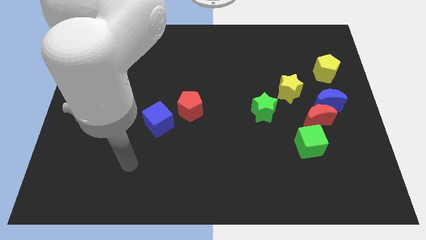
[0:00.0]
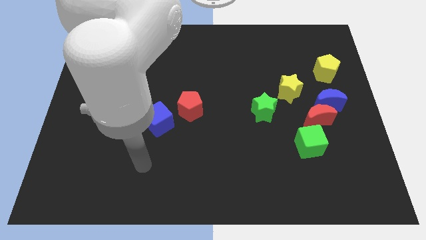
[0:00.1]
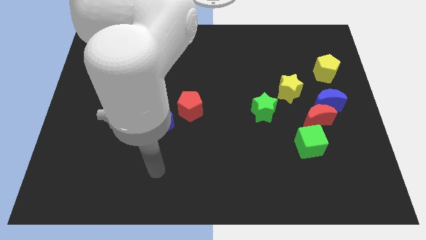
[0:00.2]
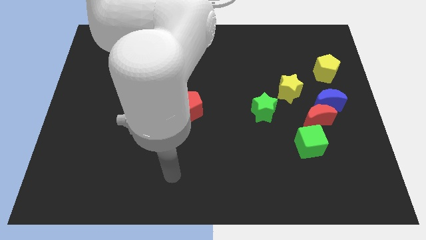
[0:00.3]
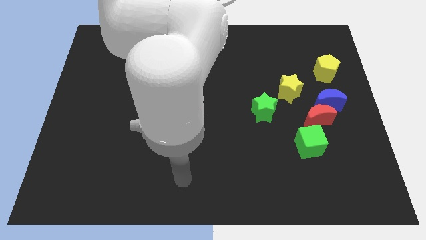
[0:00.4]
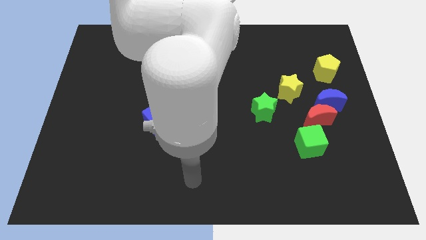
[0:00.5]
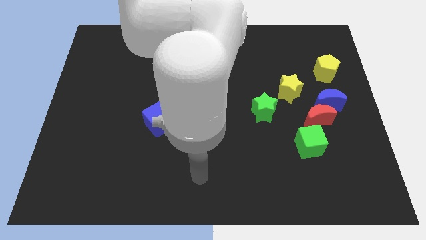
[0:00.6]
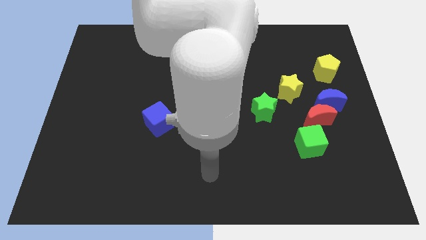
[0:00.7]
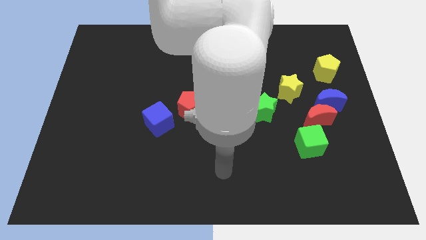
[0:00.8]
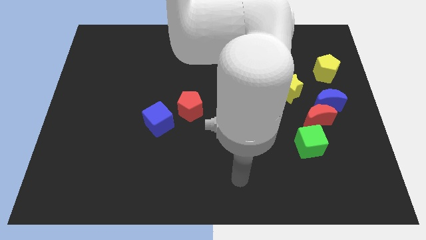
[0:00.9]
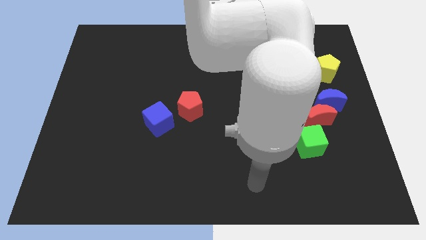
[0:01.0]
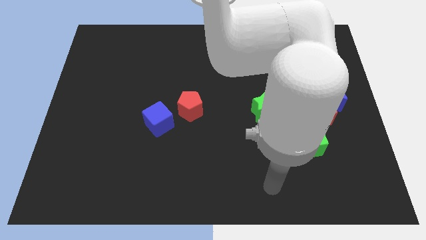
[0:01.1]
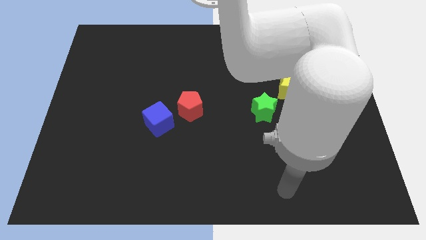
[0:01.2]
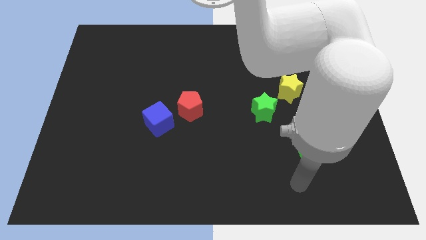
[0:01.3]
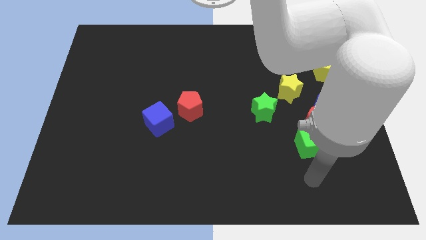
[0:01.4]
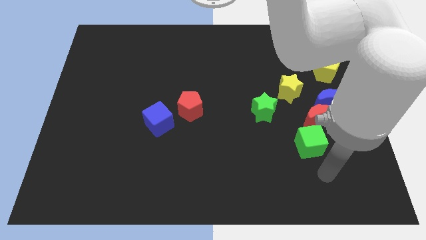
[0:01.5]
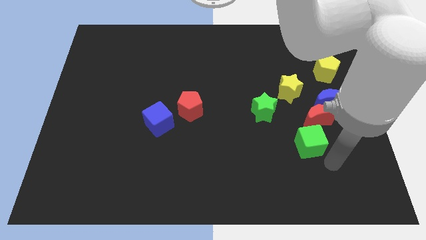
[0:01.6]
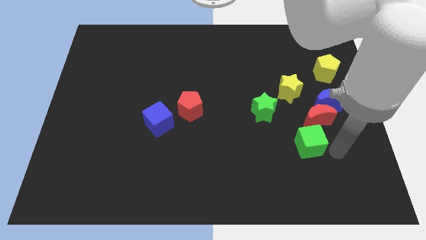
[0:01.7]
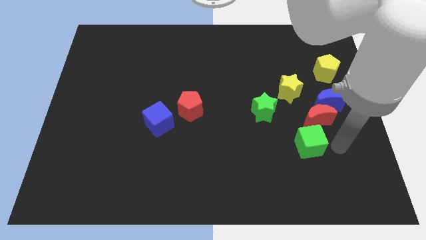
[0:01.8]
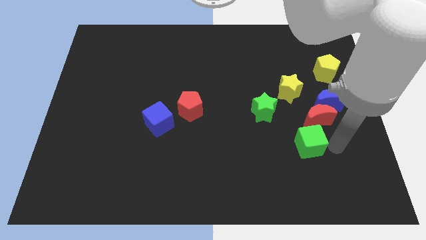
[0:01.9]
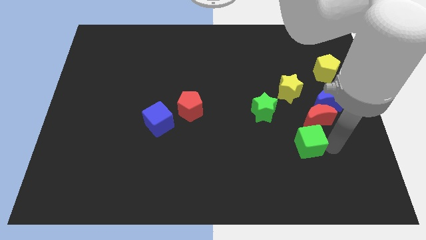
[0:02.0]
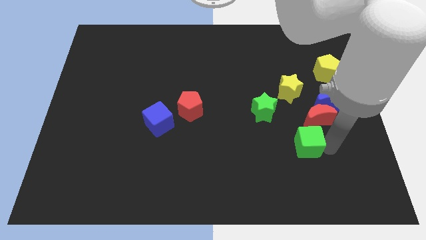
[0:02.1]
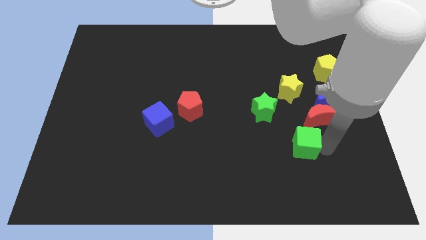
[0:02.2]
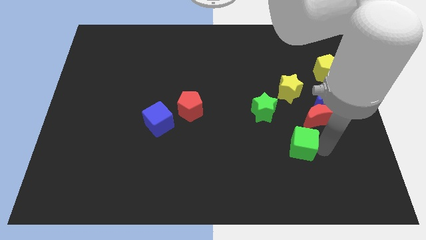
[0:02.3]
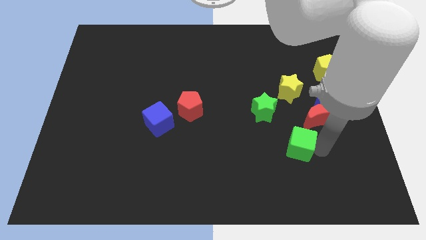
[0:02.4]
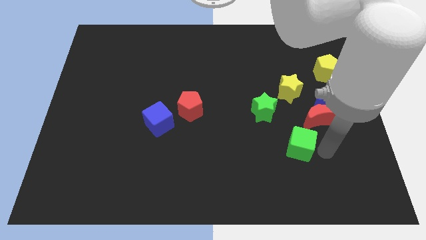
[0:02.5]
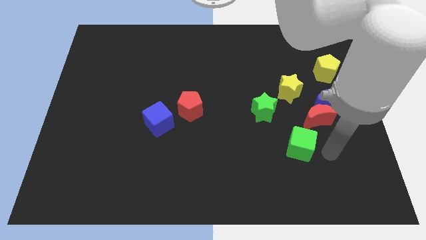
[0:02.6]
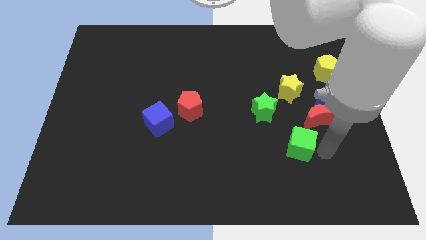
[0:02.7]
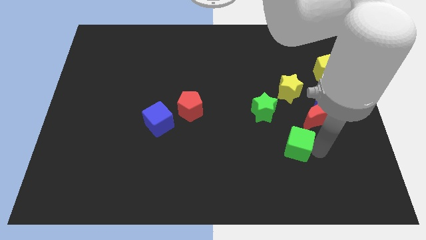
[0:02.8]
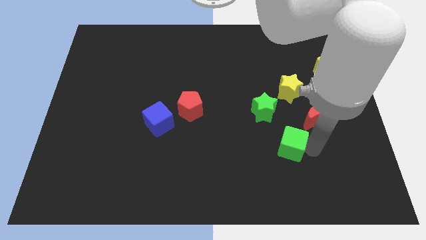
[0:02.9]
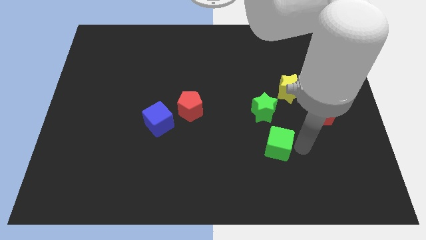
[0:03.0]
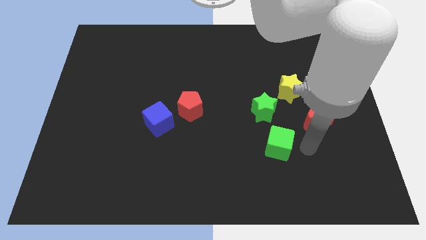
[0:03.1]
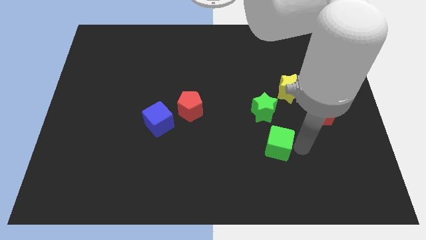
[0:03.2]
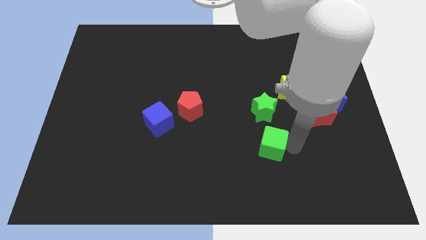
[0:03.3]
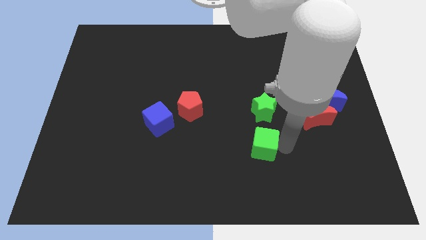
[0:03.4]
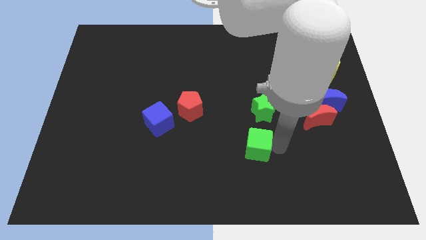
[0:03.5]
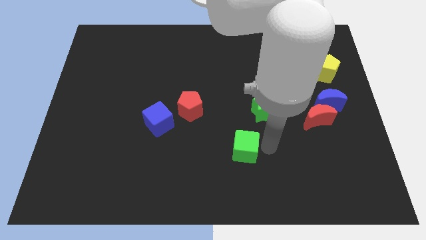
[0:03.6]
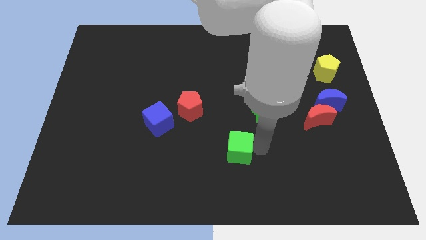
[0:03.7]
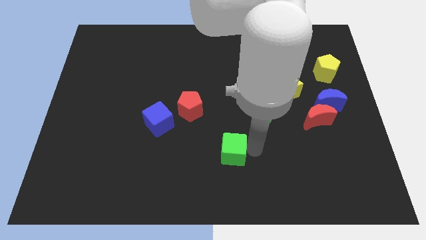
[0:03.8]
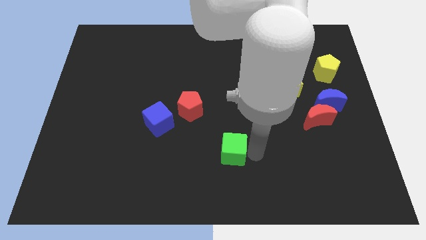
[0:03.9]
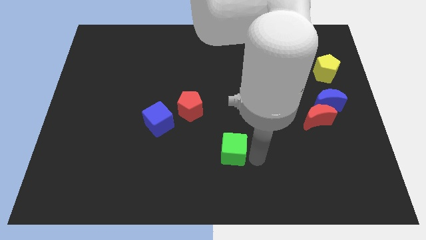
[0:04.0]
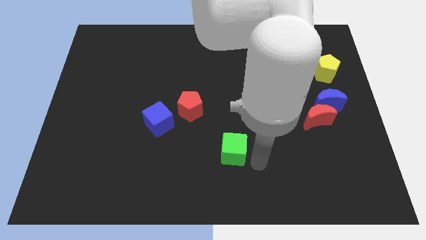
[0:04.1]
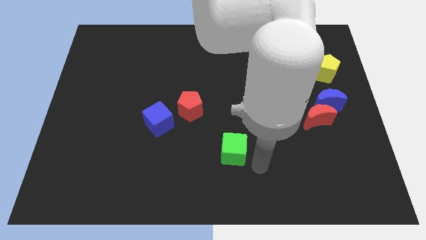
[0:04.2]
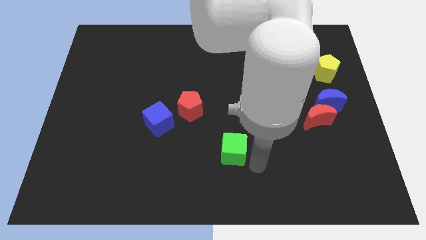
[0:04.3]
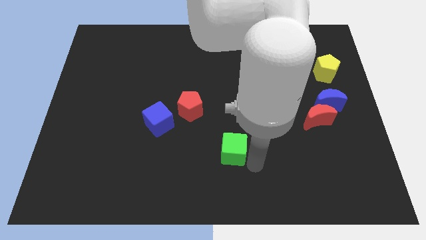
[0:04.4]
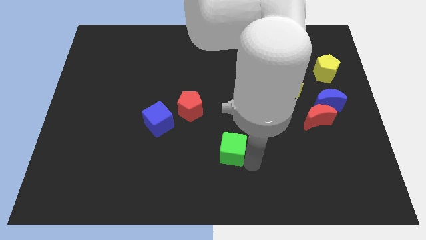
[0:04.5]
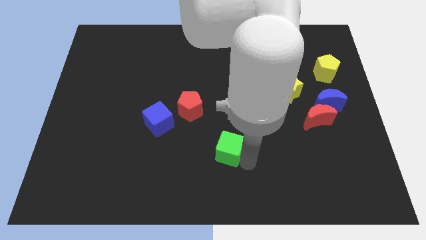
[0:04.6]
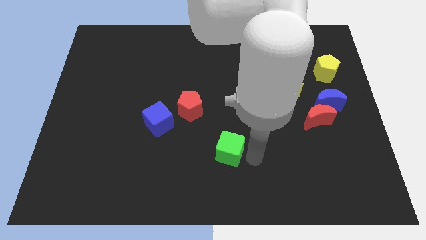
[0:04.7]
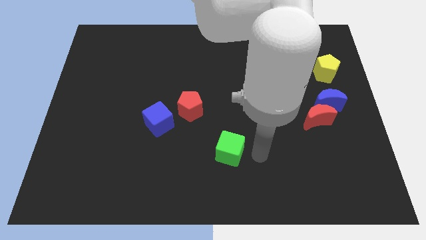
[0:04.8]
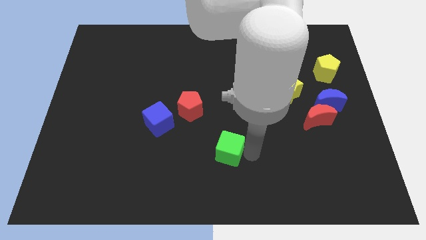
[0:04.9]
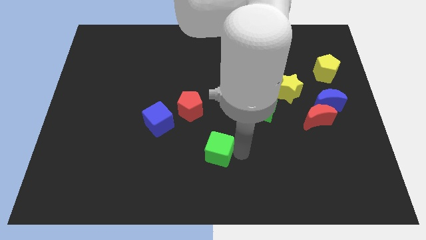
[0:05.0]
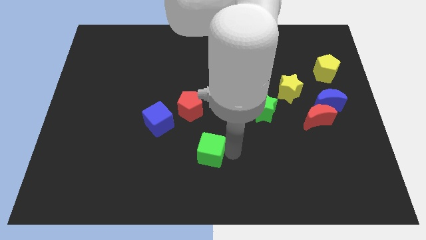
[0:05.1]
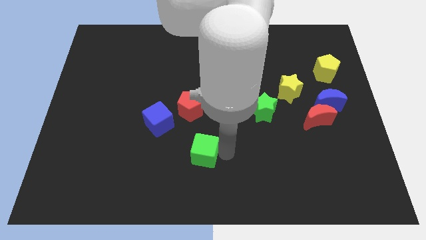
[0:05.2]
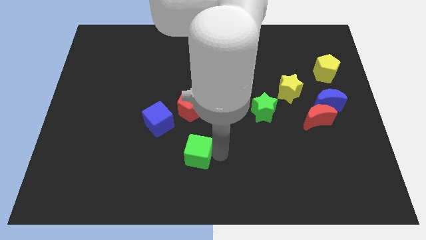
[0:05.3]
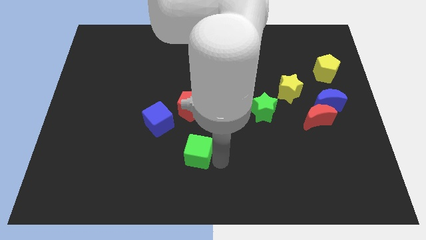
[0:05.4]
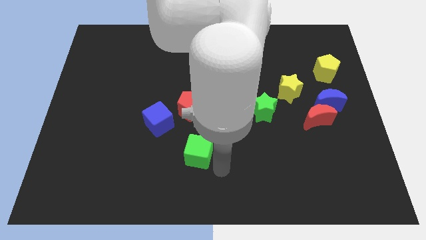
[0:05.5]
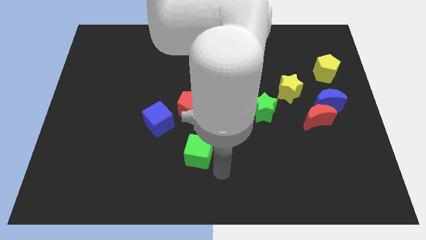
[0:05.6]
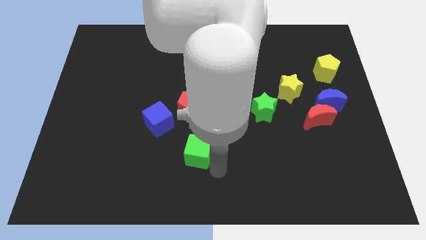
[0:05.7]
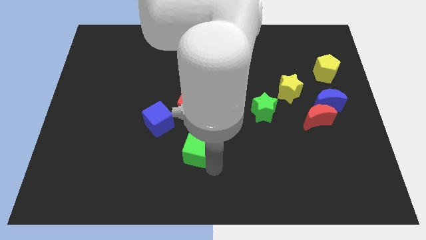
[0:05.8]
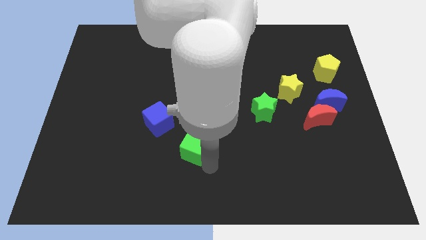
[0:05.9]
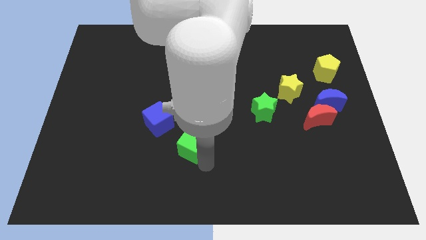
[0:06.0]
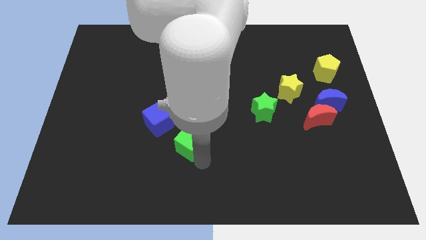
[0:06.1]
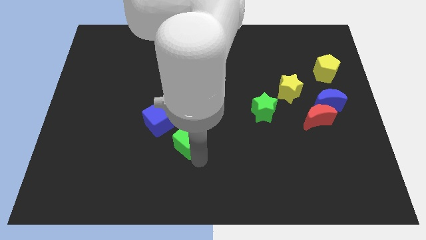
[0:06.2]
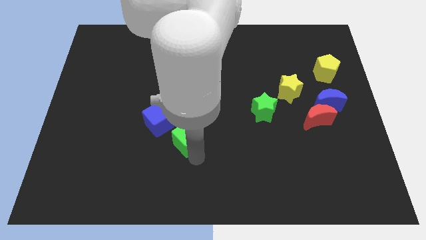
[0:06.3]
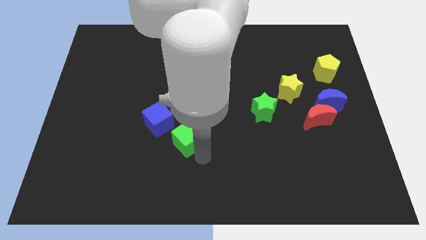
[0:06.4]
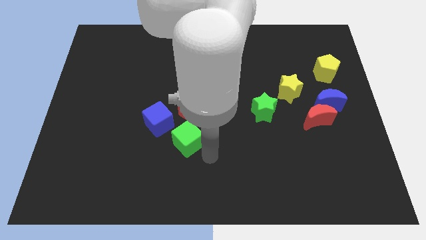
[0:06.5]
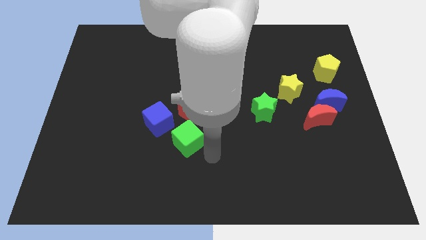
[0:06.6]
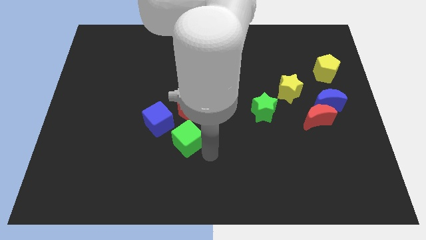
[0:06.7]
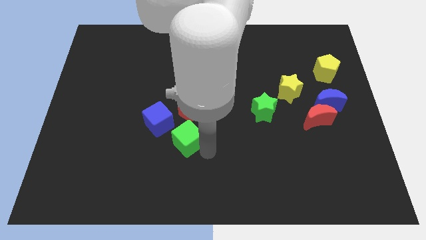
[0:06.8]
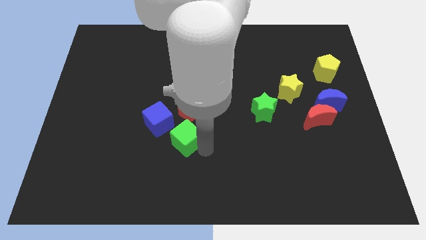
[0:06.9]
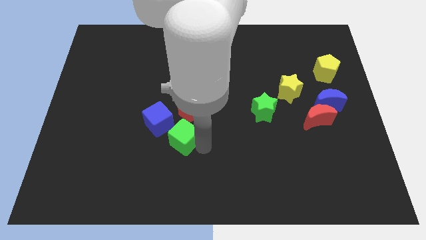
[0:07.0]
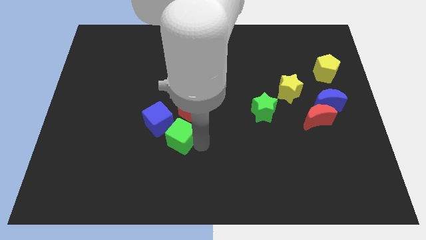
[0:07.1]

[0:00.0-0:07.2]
push the green cube diagonally down and to the left of the red pentagon
